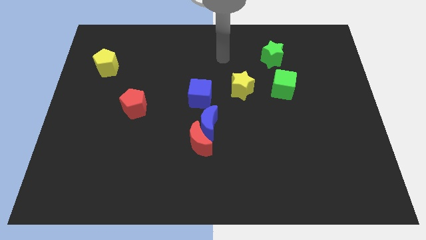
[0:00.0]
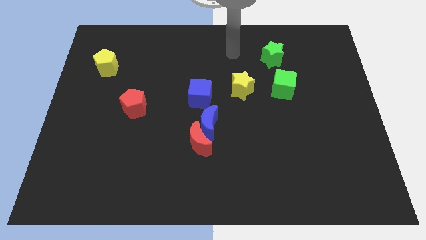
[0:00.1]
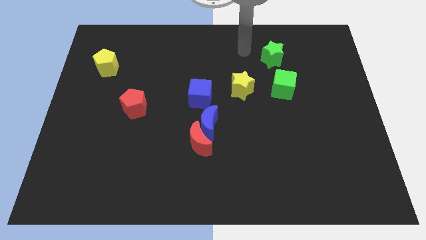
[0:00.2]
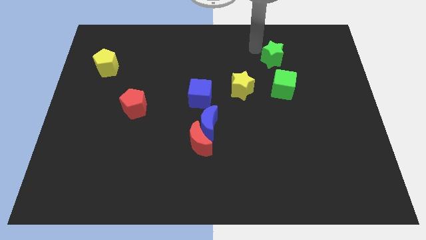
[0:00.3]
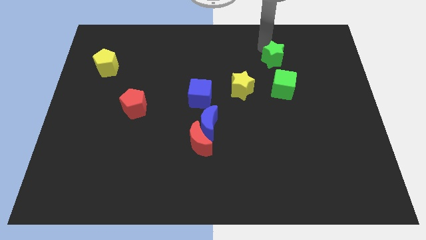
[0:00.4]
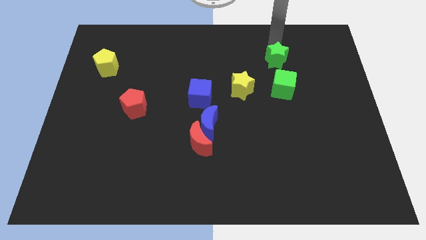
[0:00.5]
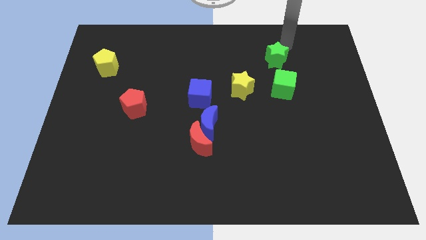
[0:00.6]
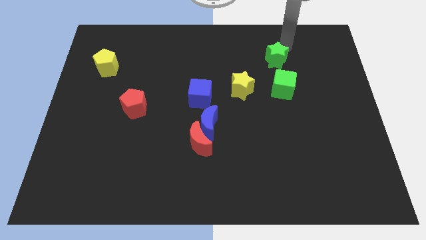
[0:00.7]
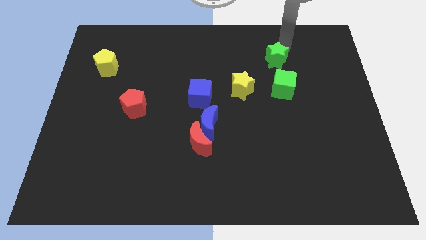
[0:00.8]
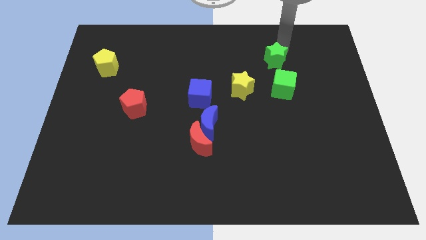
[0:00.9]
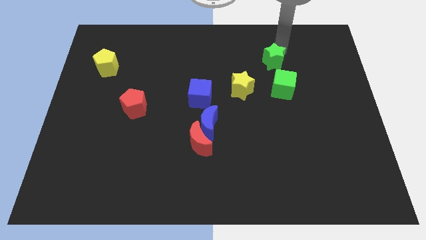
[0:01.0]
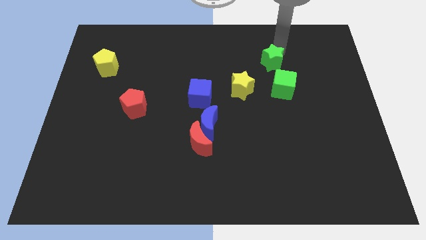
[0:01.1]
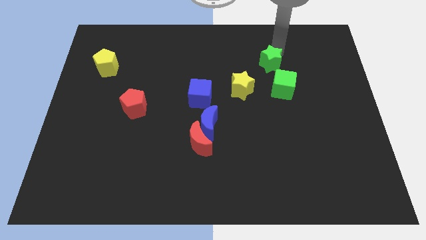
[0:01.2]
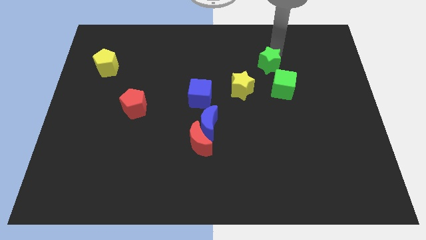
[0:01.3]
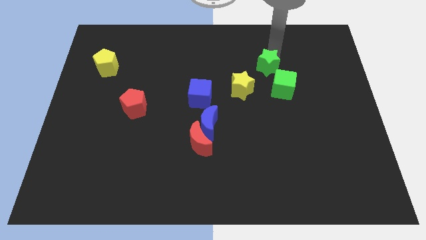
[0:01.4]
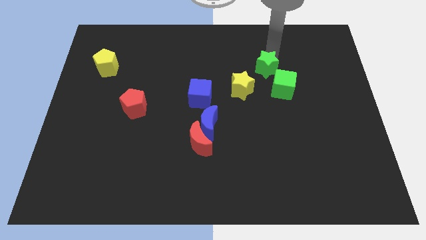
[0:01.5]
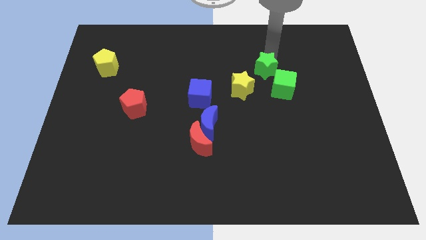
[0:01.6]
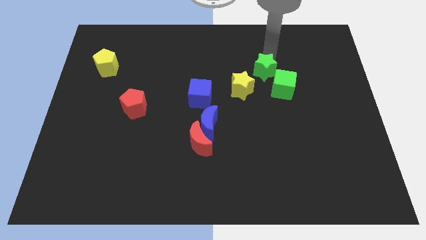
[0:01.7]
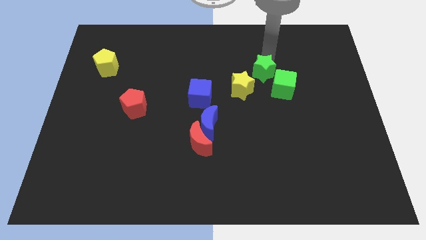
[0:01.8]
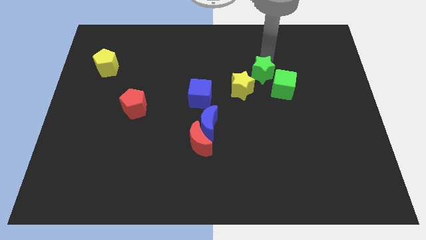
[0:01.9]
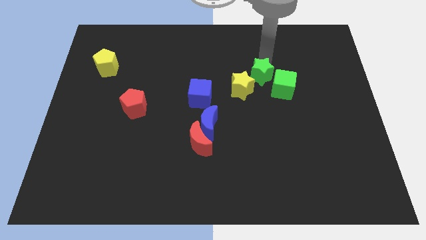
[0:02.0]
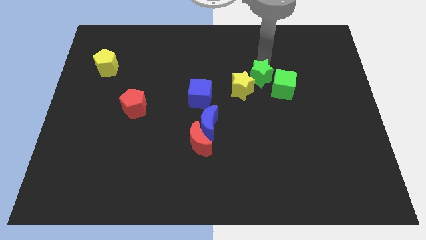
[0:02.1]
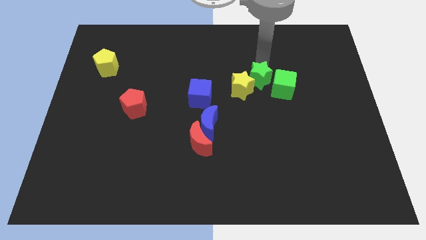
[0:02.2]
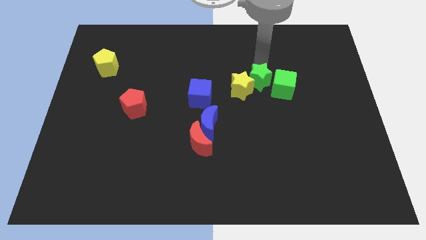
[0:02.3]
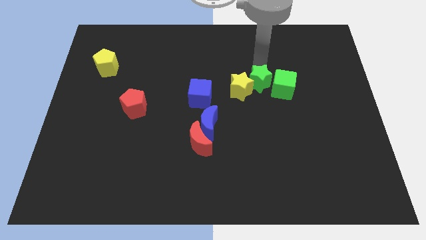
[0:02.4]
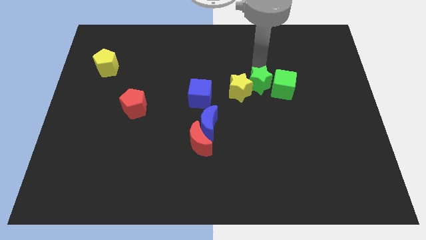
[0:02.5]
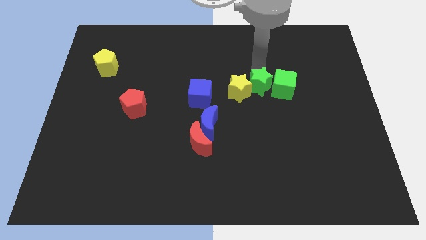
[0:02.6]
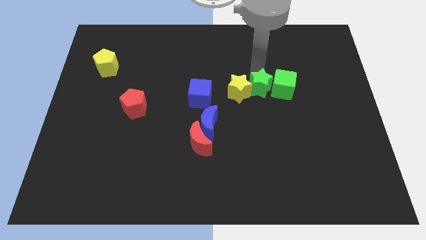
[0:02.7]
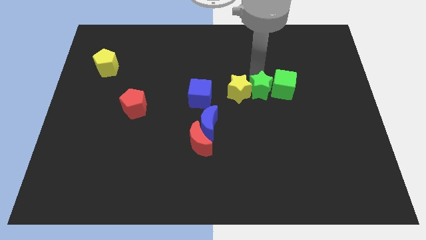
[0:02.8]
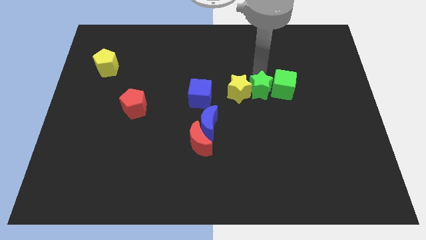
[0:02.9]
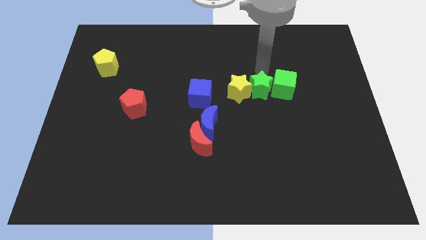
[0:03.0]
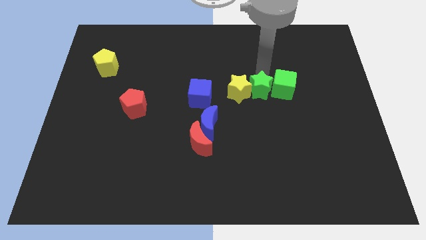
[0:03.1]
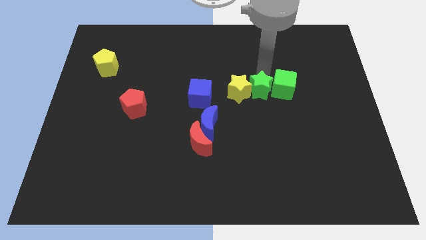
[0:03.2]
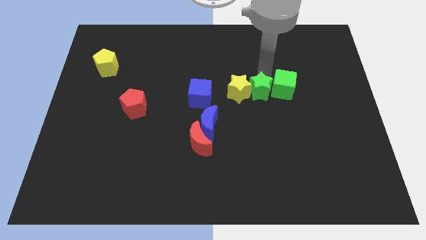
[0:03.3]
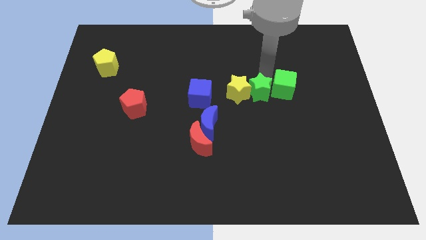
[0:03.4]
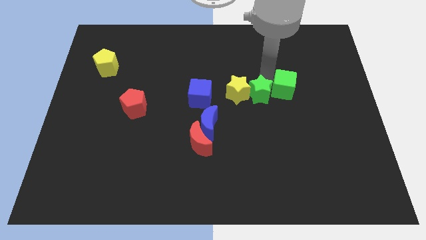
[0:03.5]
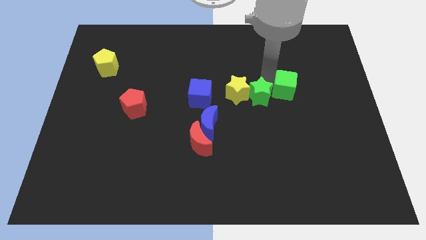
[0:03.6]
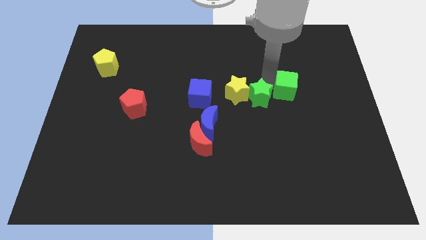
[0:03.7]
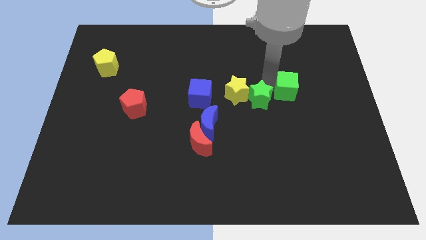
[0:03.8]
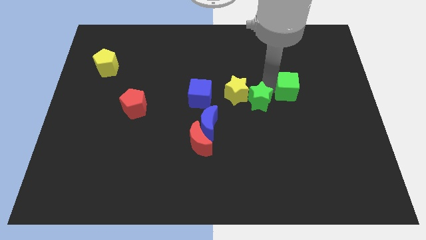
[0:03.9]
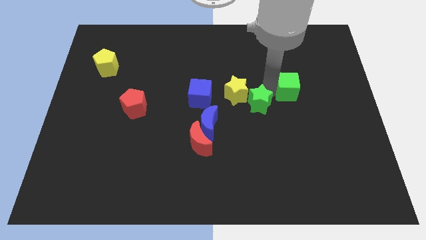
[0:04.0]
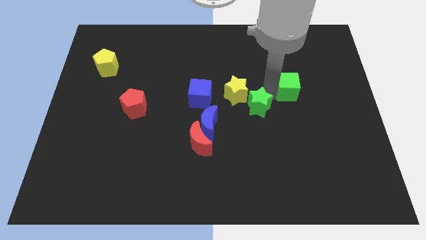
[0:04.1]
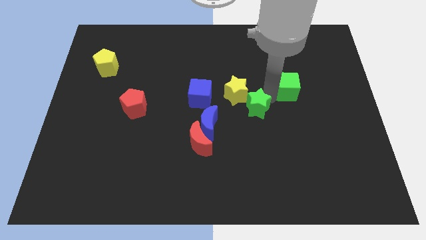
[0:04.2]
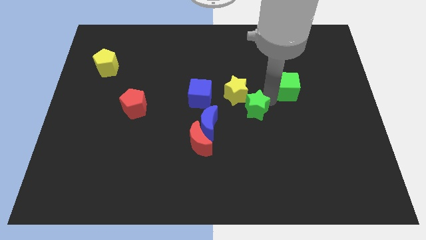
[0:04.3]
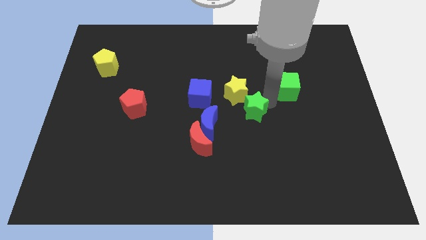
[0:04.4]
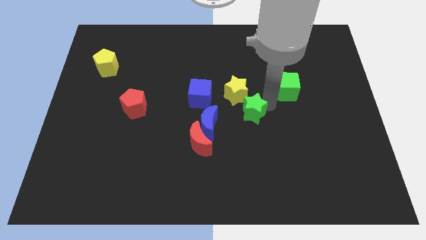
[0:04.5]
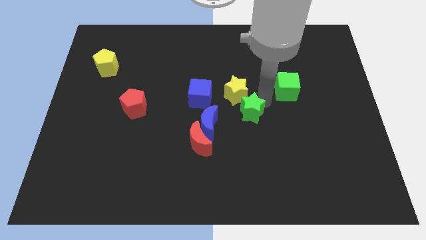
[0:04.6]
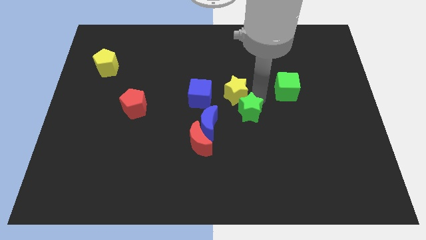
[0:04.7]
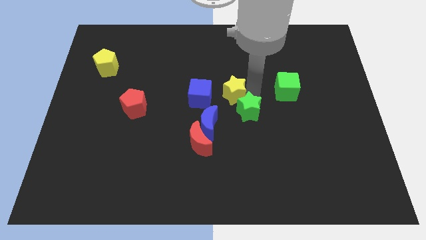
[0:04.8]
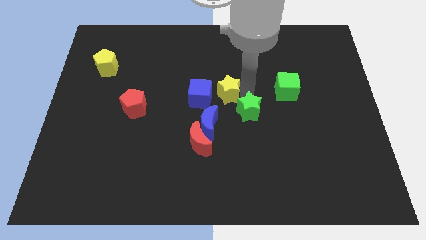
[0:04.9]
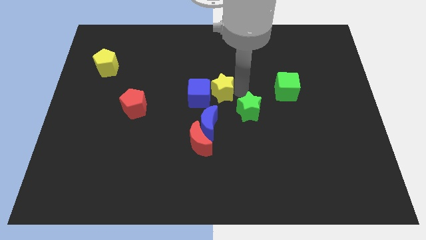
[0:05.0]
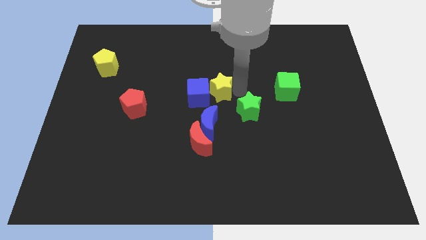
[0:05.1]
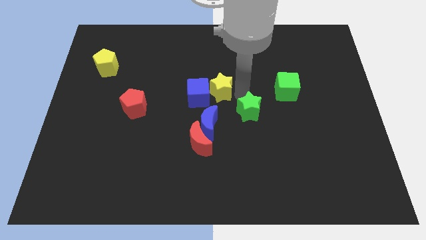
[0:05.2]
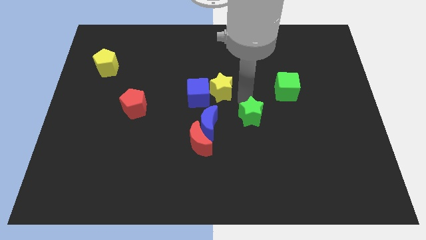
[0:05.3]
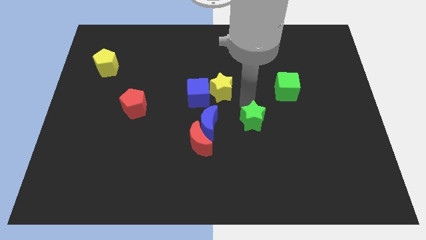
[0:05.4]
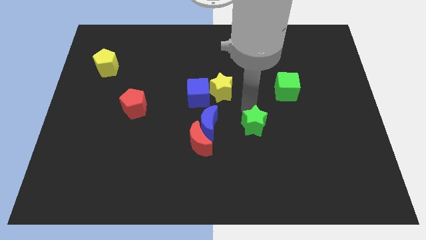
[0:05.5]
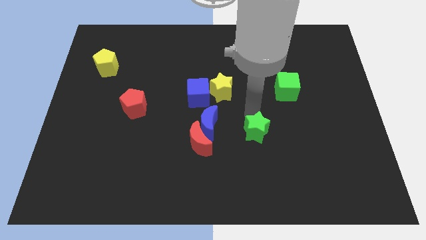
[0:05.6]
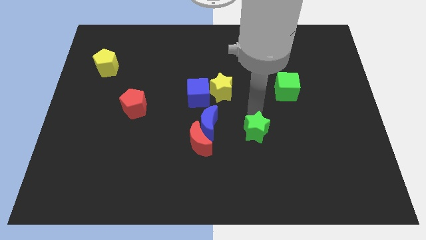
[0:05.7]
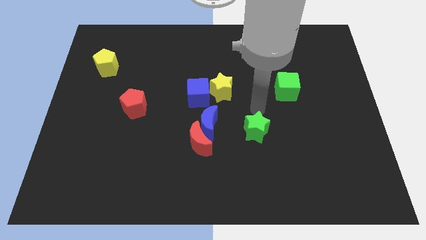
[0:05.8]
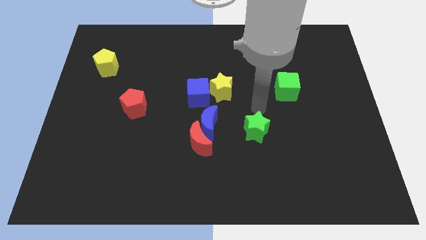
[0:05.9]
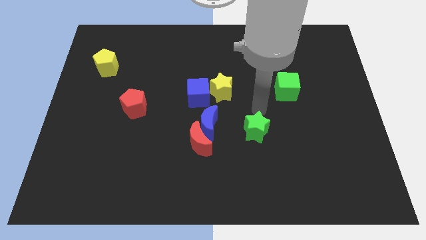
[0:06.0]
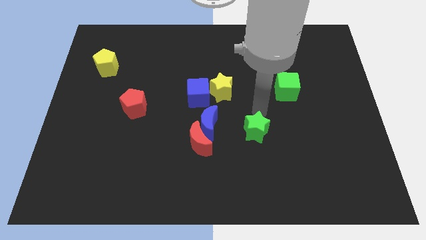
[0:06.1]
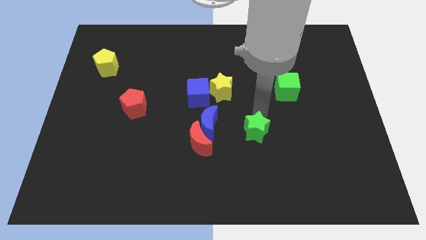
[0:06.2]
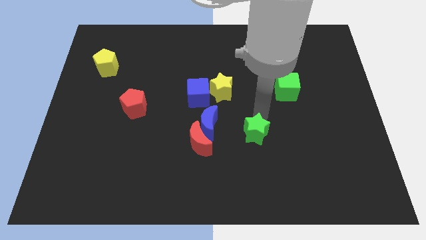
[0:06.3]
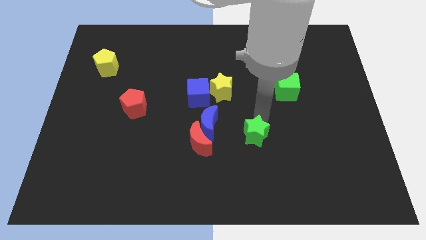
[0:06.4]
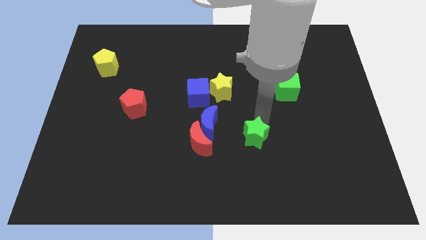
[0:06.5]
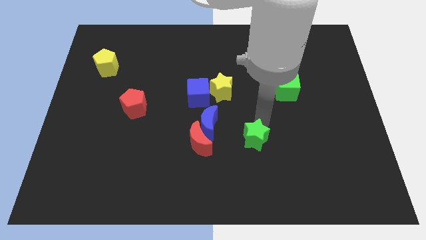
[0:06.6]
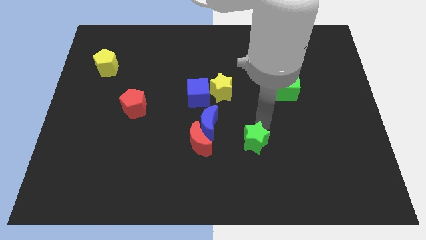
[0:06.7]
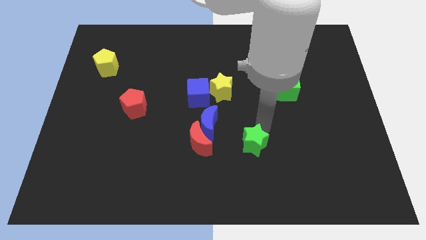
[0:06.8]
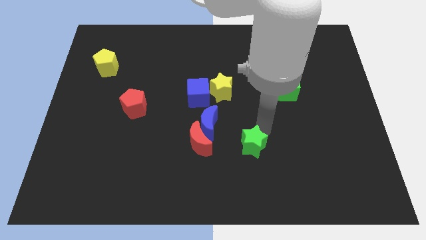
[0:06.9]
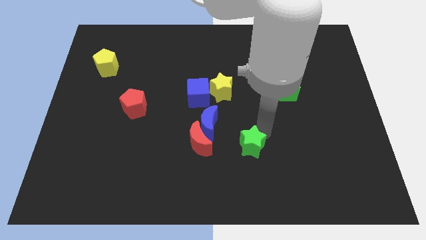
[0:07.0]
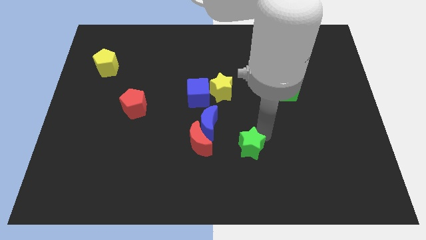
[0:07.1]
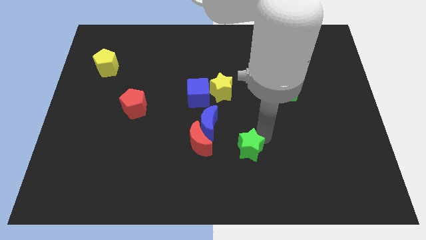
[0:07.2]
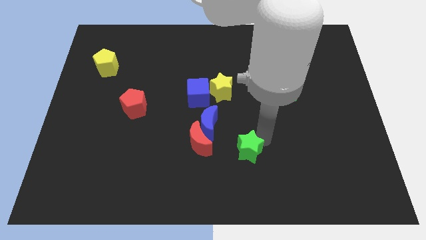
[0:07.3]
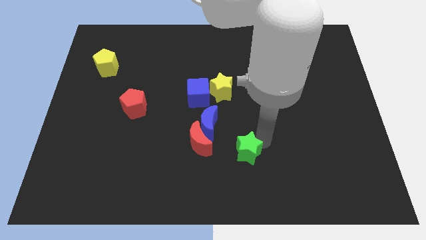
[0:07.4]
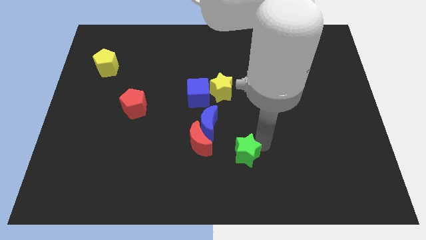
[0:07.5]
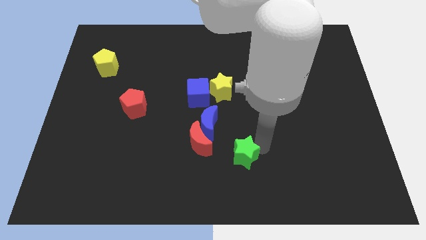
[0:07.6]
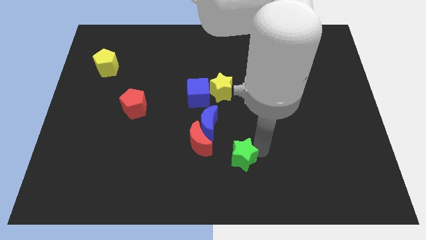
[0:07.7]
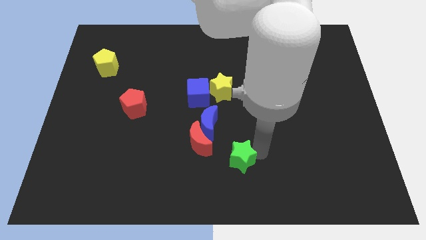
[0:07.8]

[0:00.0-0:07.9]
put the green star to the bottom
